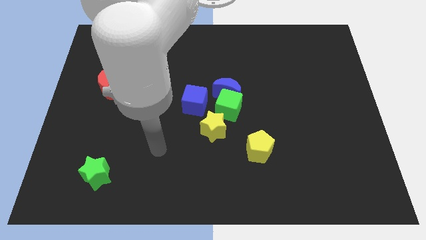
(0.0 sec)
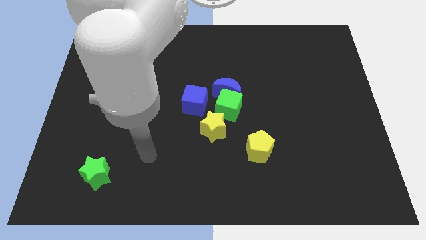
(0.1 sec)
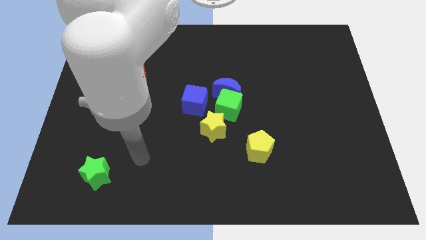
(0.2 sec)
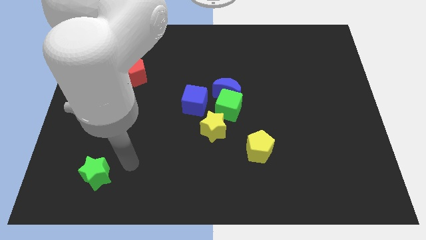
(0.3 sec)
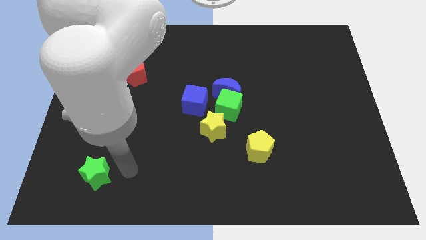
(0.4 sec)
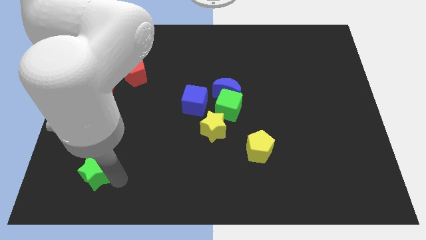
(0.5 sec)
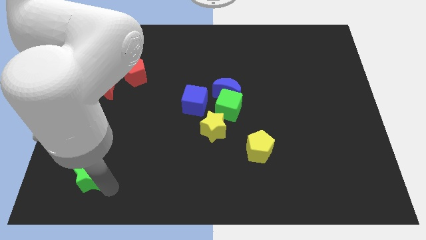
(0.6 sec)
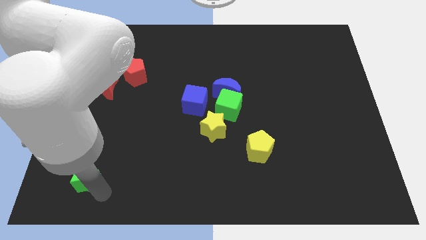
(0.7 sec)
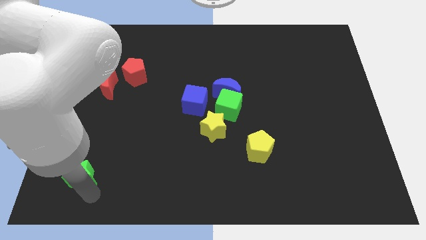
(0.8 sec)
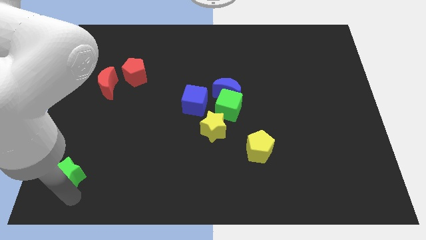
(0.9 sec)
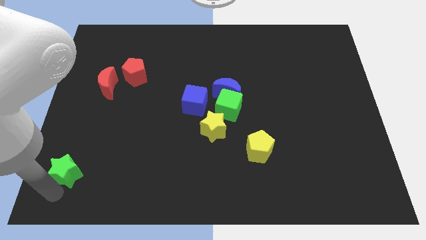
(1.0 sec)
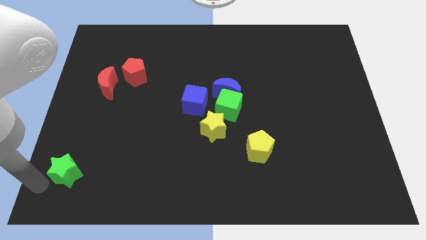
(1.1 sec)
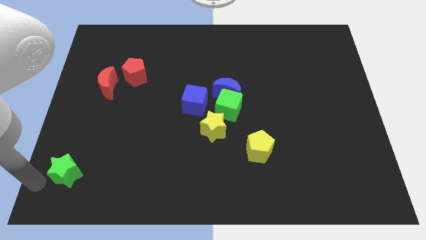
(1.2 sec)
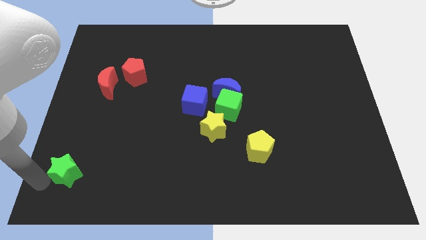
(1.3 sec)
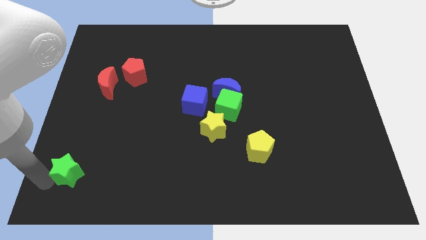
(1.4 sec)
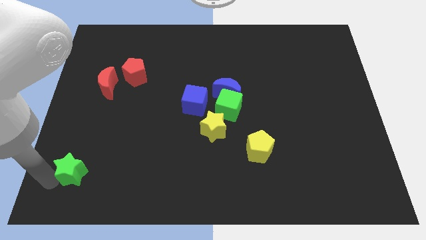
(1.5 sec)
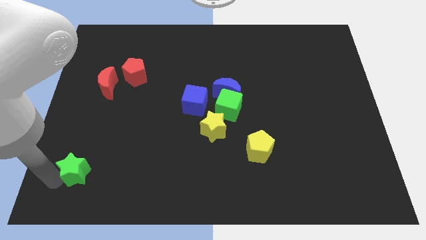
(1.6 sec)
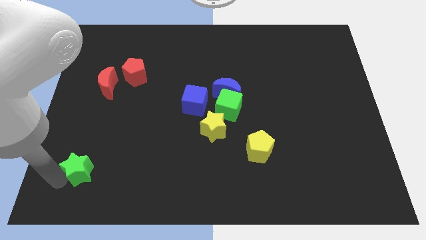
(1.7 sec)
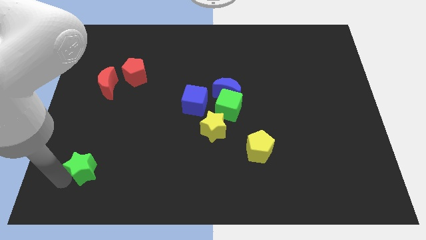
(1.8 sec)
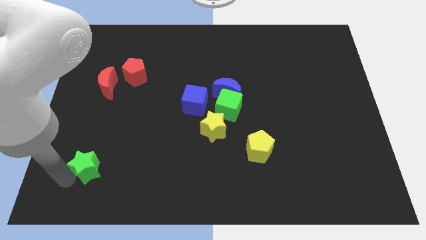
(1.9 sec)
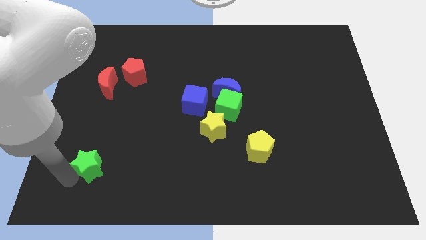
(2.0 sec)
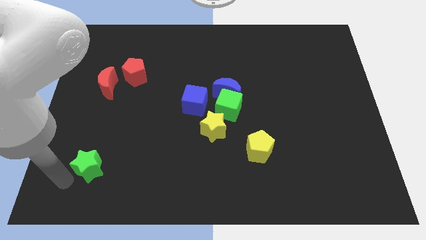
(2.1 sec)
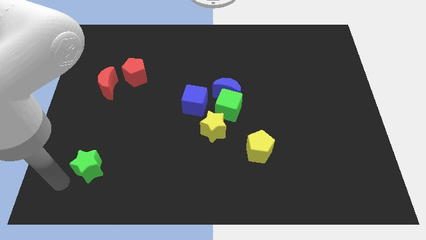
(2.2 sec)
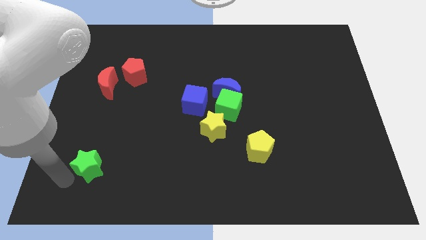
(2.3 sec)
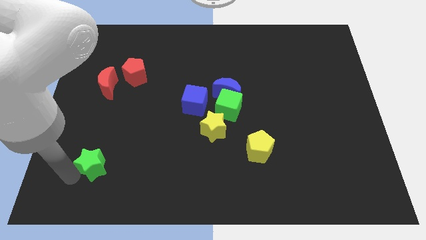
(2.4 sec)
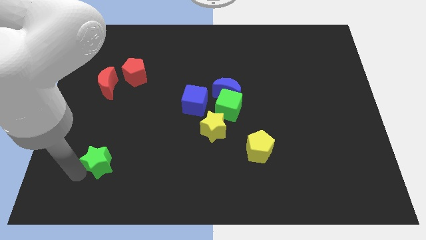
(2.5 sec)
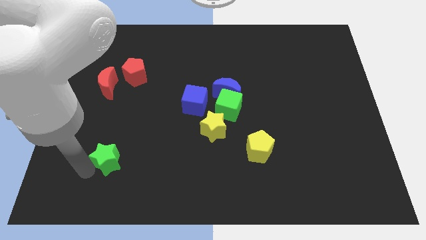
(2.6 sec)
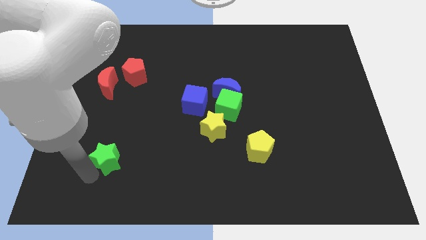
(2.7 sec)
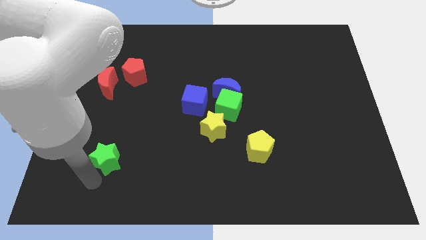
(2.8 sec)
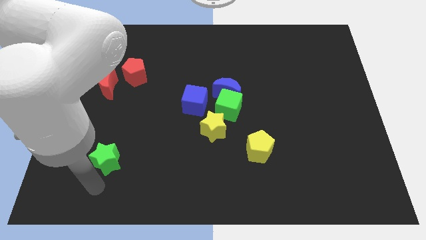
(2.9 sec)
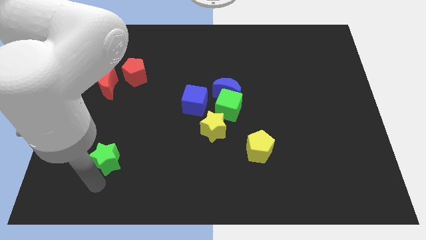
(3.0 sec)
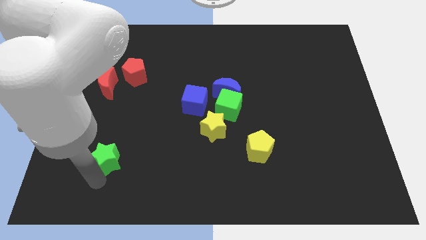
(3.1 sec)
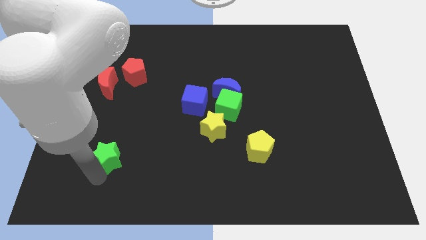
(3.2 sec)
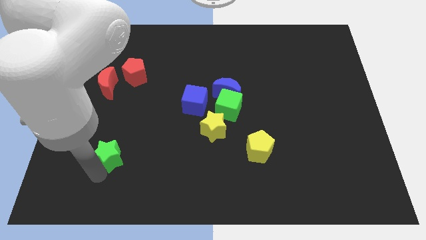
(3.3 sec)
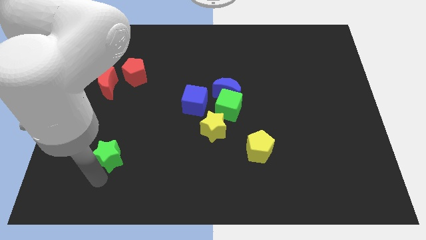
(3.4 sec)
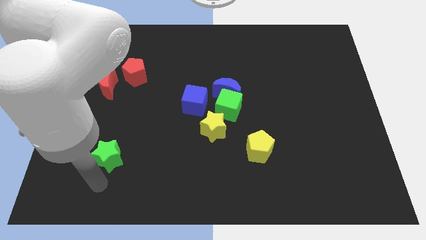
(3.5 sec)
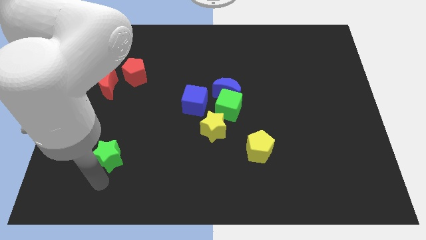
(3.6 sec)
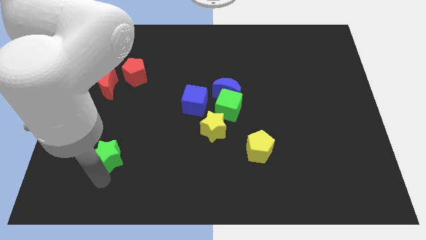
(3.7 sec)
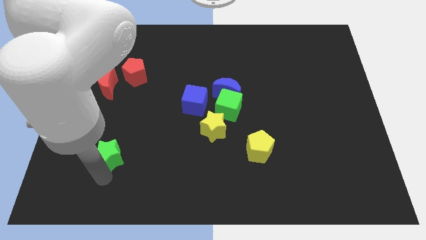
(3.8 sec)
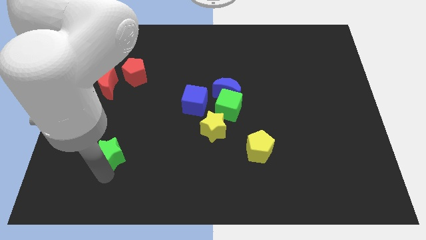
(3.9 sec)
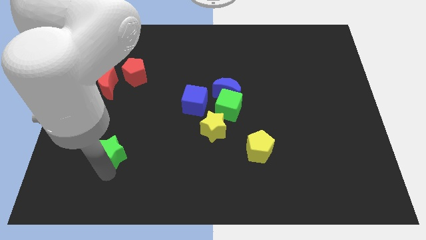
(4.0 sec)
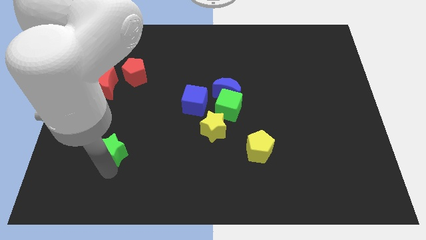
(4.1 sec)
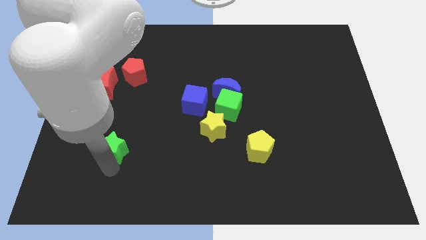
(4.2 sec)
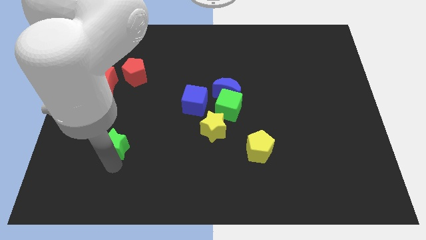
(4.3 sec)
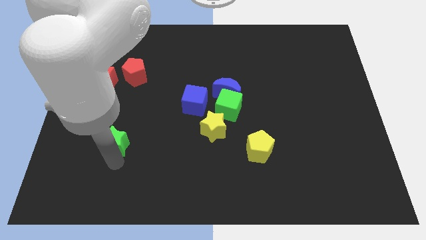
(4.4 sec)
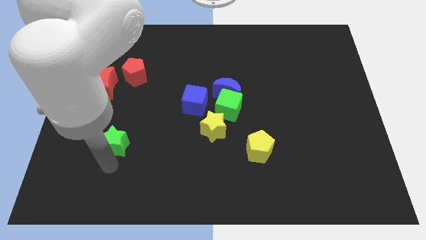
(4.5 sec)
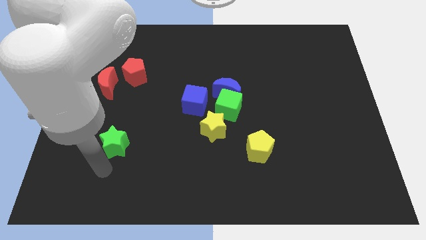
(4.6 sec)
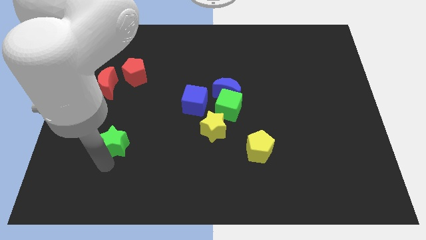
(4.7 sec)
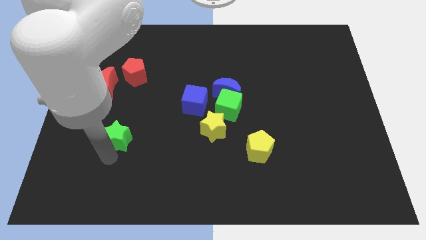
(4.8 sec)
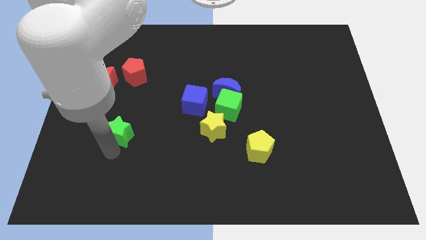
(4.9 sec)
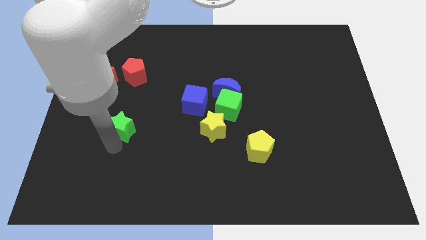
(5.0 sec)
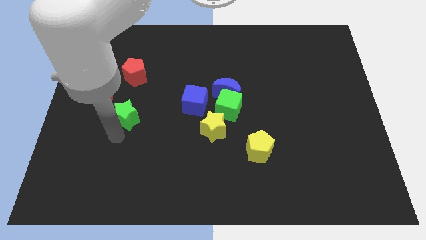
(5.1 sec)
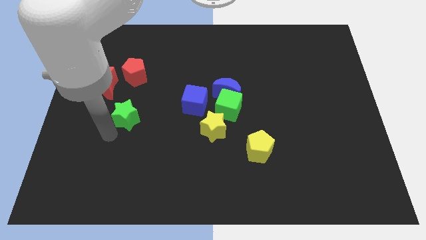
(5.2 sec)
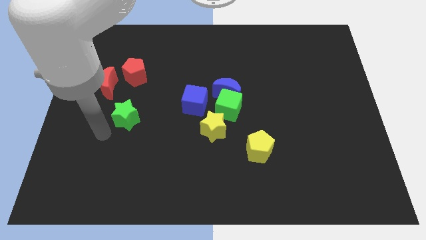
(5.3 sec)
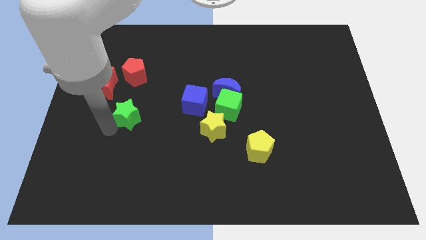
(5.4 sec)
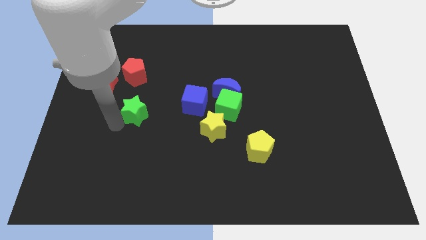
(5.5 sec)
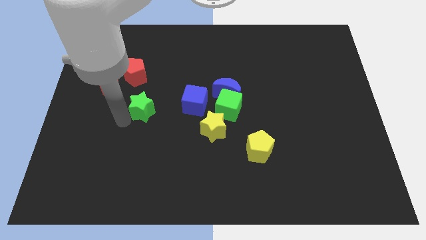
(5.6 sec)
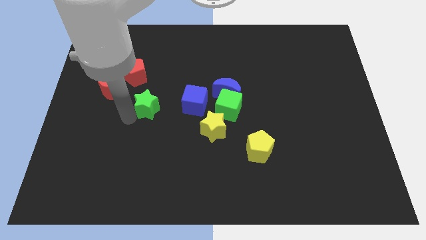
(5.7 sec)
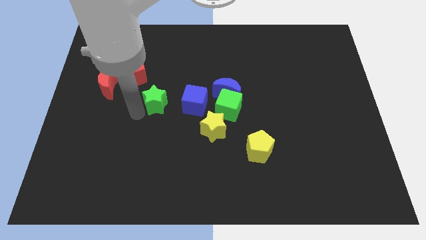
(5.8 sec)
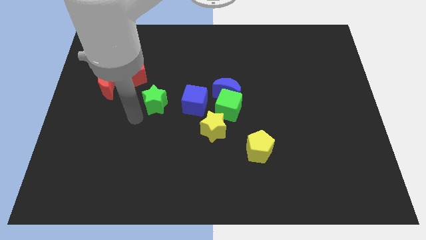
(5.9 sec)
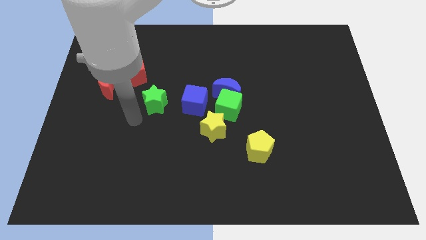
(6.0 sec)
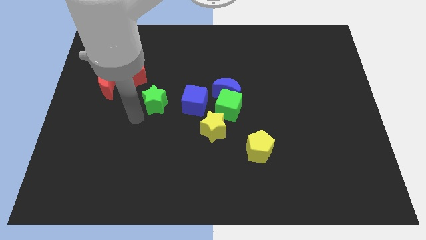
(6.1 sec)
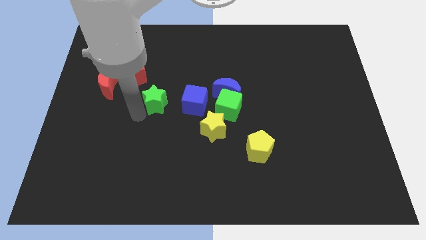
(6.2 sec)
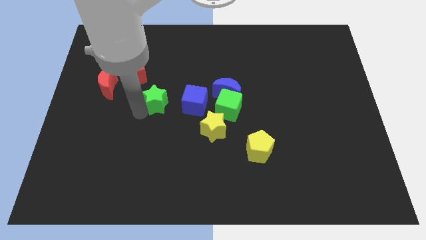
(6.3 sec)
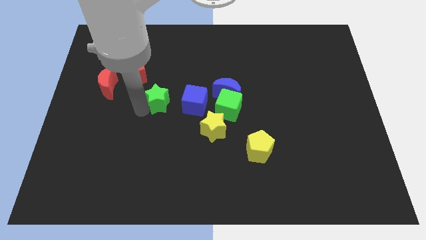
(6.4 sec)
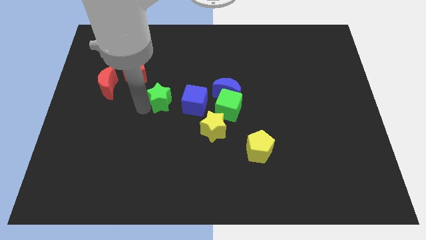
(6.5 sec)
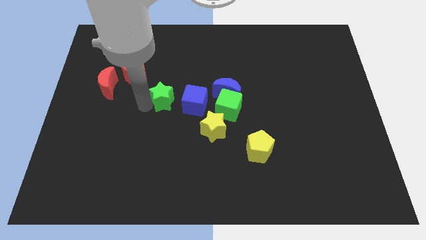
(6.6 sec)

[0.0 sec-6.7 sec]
push the green star to the top left side of the blue cube
